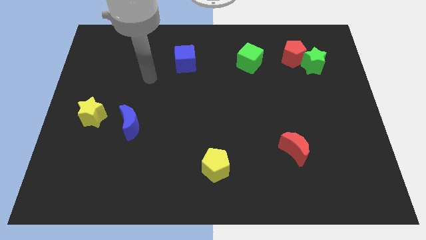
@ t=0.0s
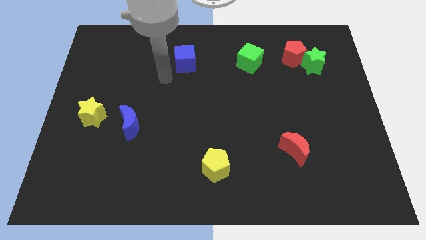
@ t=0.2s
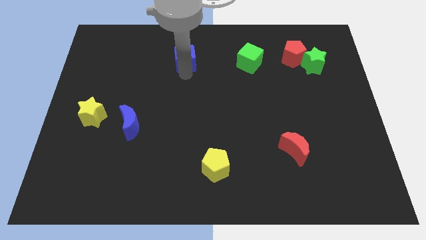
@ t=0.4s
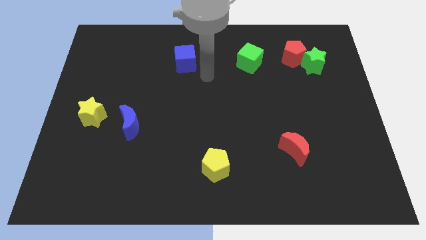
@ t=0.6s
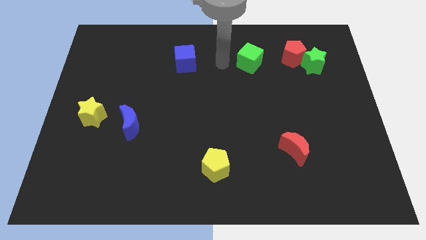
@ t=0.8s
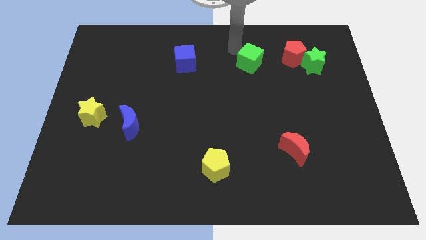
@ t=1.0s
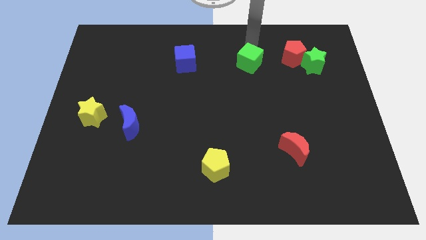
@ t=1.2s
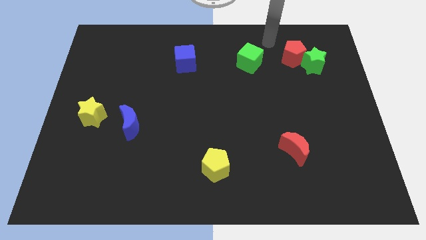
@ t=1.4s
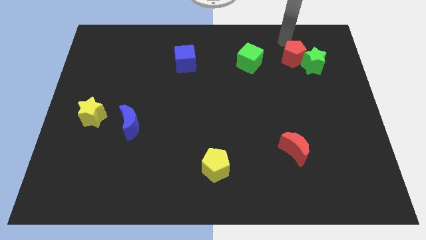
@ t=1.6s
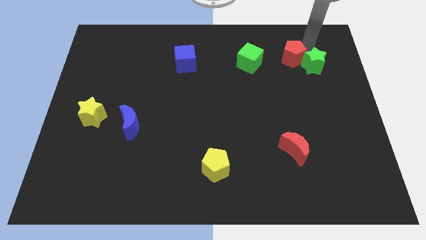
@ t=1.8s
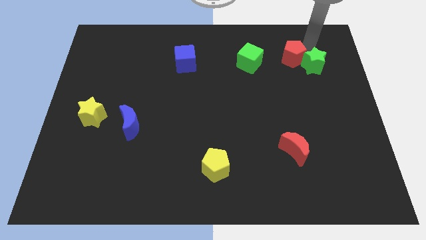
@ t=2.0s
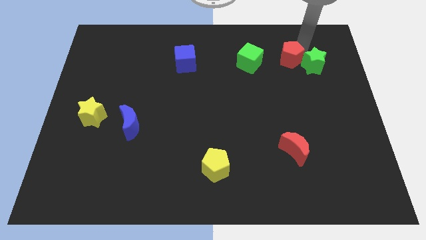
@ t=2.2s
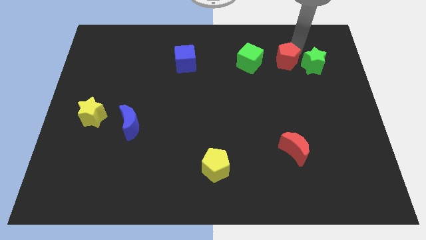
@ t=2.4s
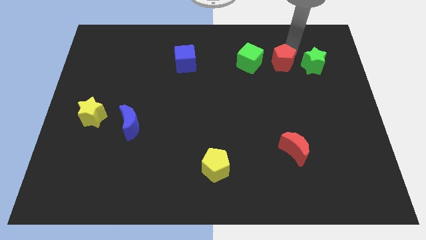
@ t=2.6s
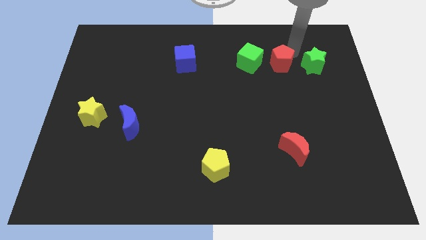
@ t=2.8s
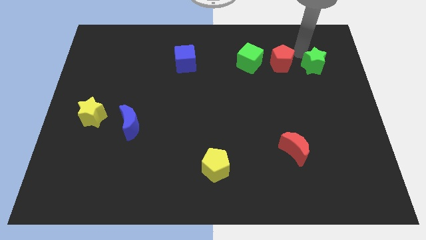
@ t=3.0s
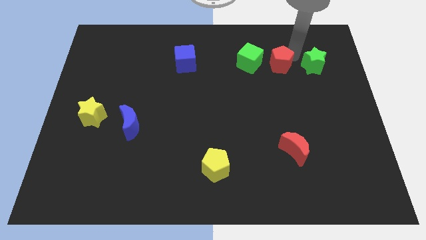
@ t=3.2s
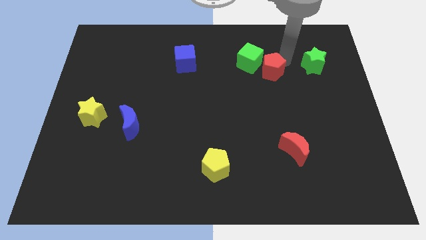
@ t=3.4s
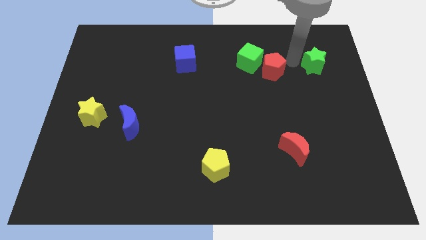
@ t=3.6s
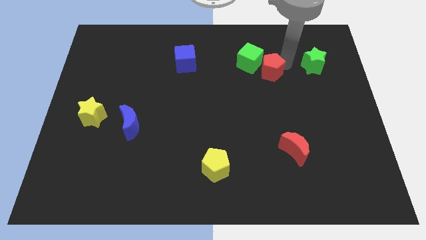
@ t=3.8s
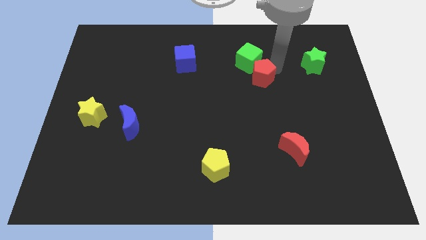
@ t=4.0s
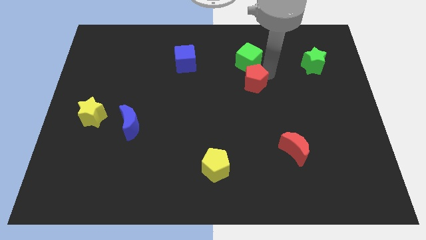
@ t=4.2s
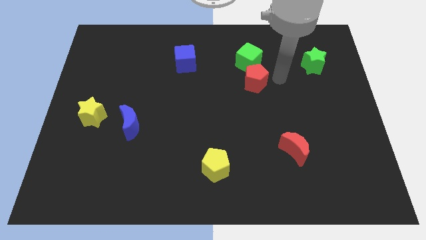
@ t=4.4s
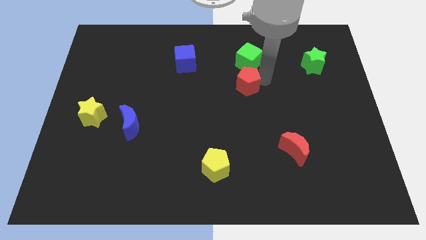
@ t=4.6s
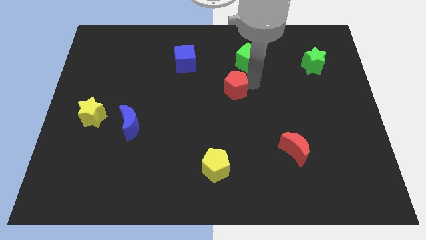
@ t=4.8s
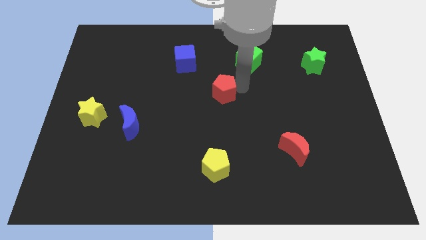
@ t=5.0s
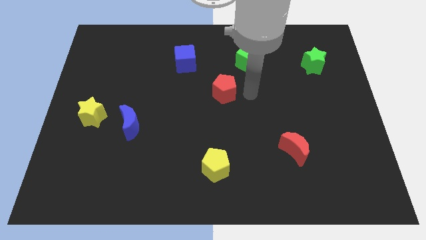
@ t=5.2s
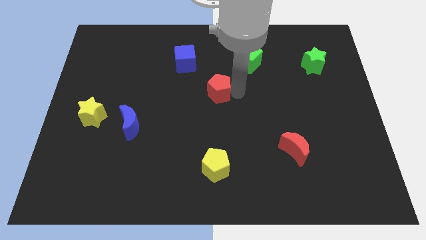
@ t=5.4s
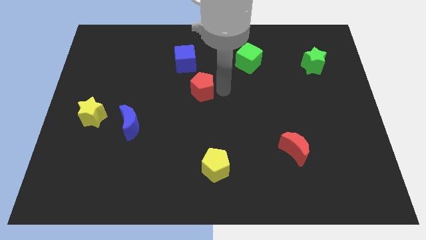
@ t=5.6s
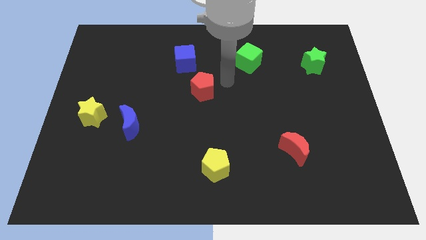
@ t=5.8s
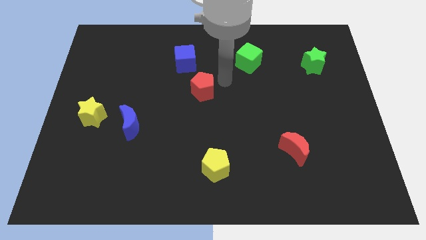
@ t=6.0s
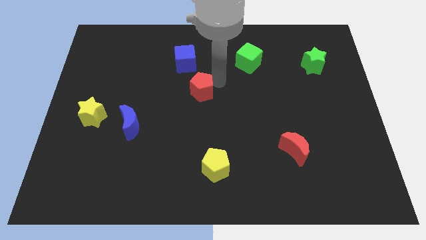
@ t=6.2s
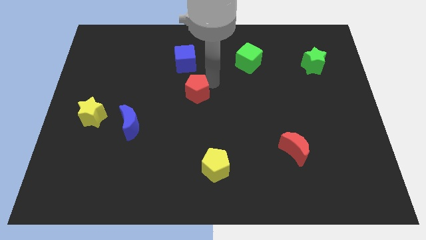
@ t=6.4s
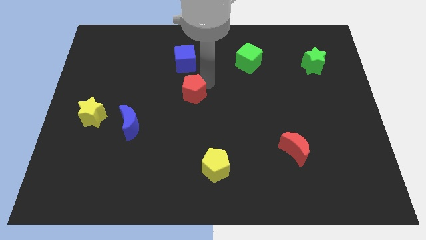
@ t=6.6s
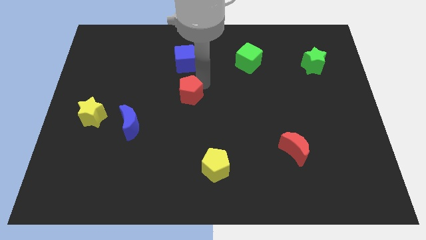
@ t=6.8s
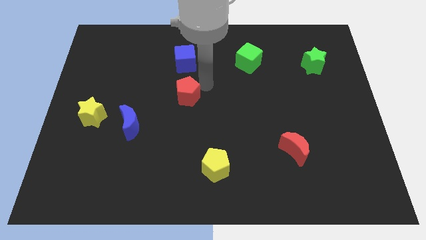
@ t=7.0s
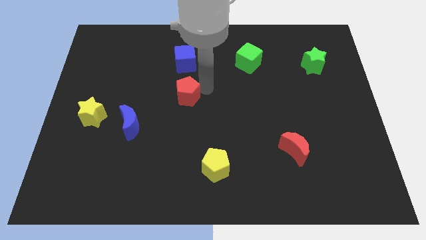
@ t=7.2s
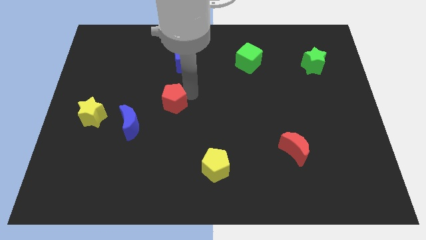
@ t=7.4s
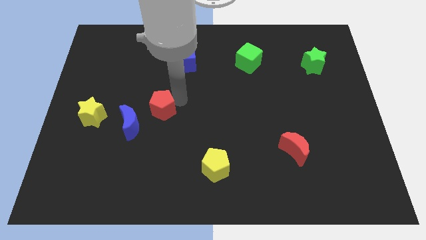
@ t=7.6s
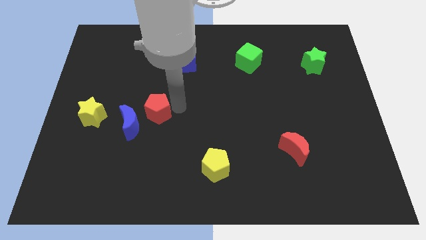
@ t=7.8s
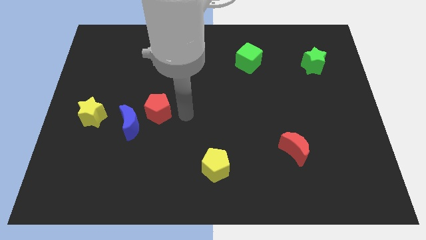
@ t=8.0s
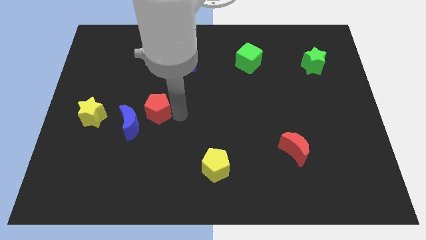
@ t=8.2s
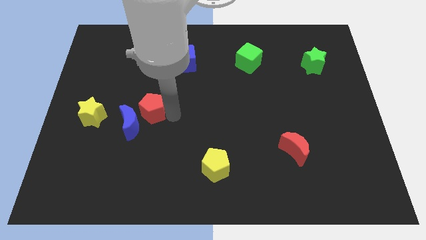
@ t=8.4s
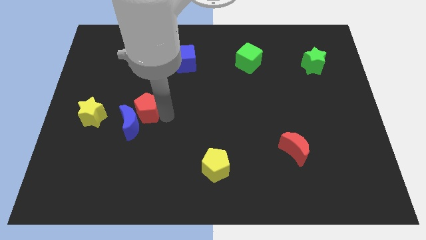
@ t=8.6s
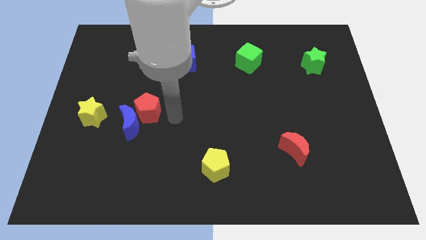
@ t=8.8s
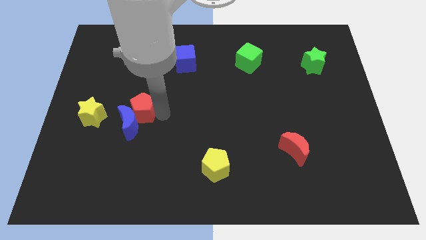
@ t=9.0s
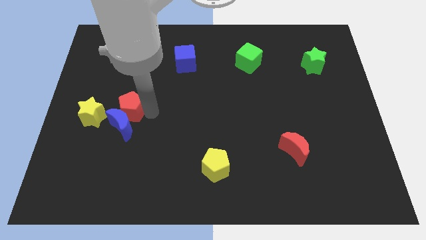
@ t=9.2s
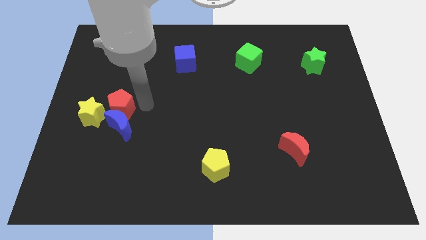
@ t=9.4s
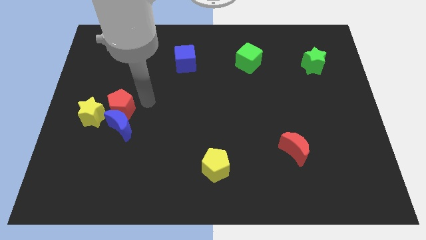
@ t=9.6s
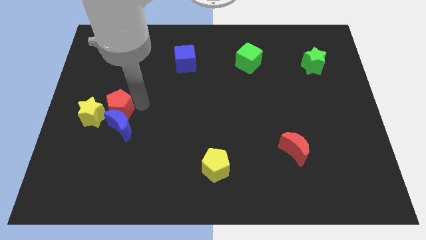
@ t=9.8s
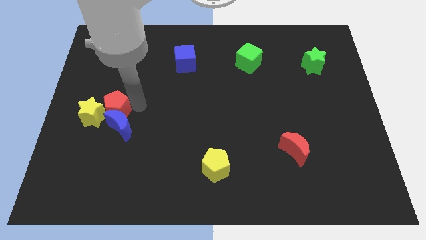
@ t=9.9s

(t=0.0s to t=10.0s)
move the red pentagon towards the yellow star

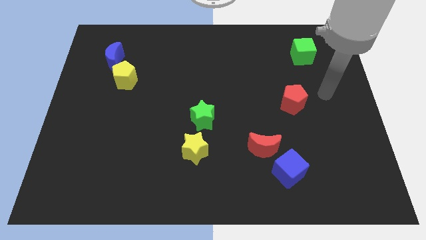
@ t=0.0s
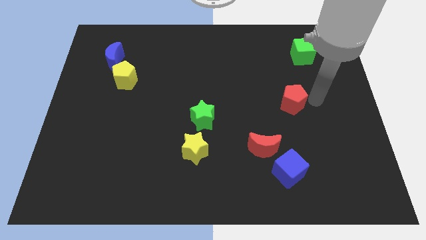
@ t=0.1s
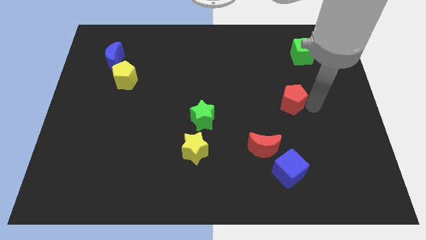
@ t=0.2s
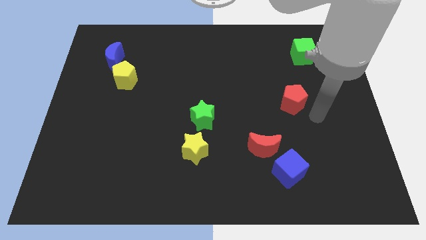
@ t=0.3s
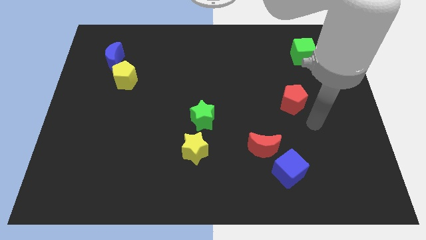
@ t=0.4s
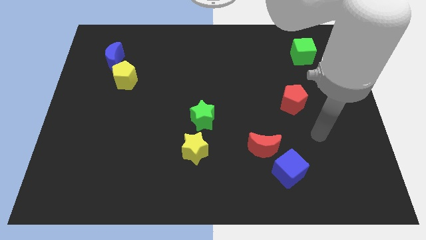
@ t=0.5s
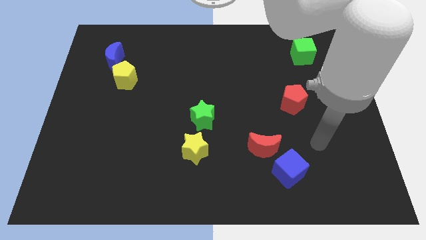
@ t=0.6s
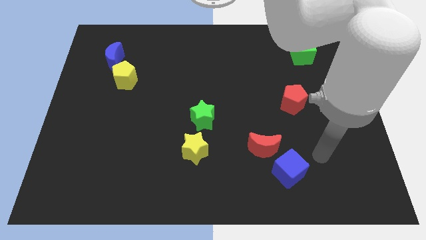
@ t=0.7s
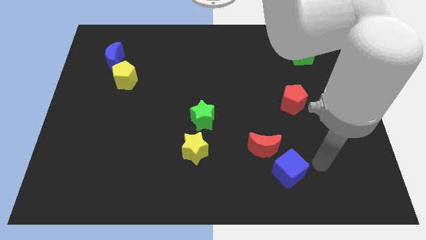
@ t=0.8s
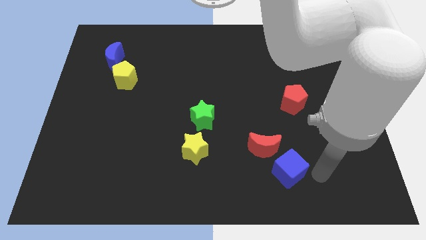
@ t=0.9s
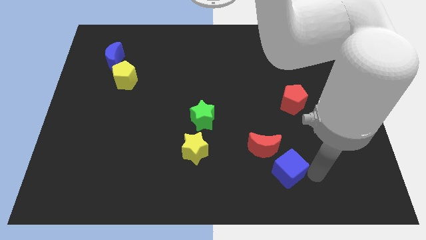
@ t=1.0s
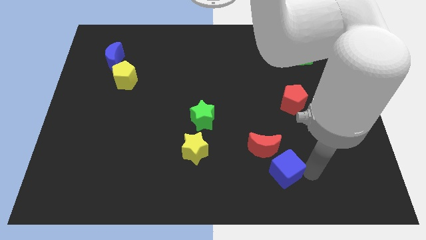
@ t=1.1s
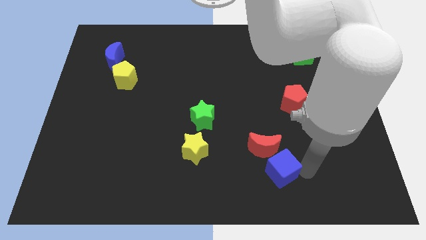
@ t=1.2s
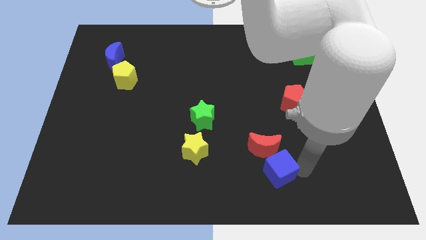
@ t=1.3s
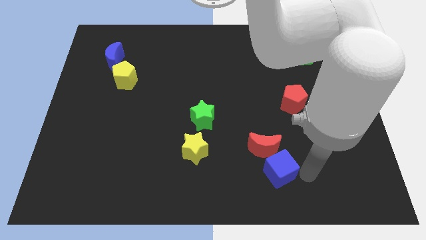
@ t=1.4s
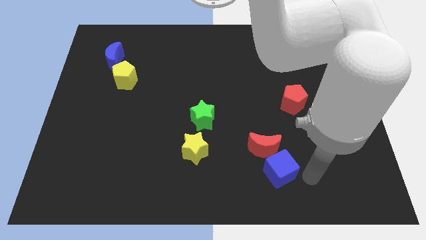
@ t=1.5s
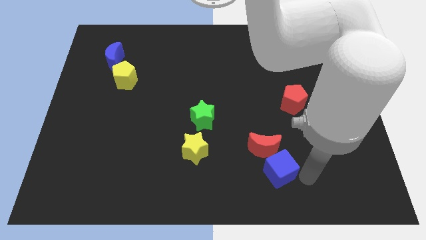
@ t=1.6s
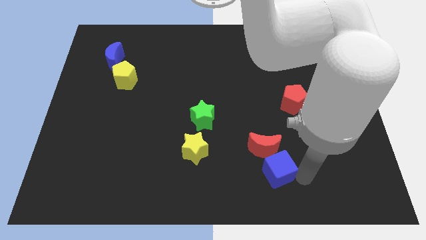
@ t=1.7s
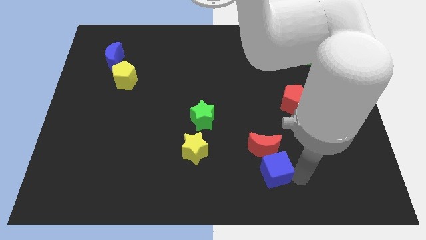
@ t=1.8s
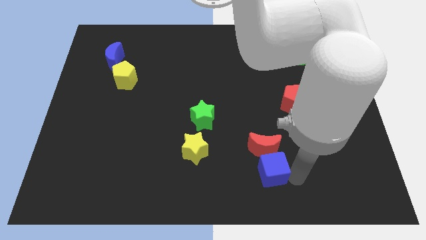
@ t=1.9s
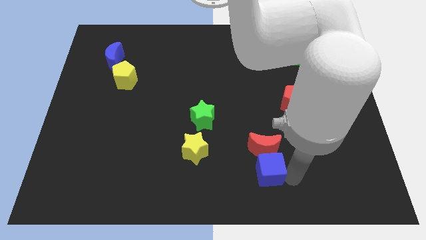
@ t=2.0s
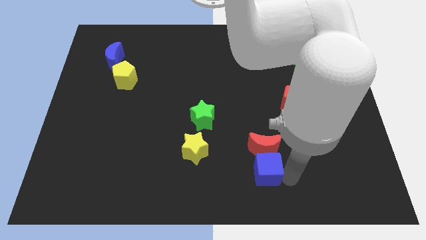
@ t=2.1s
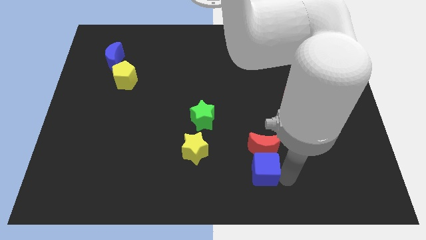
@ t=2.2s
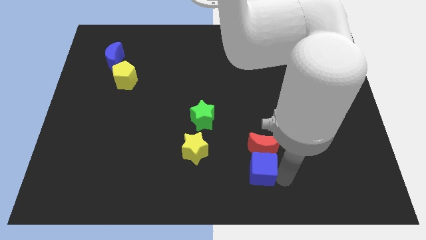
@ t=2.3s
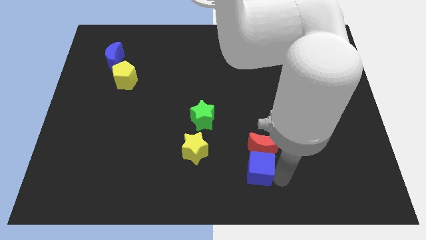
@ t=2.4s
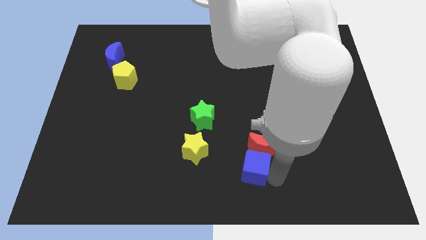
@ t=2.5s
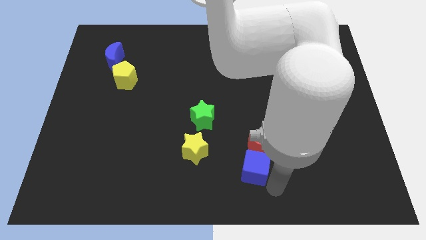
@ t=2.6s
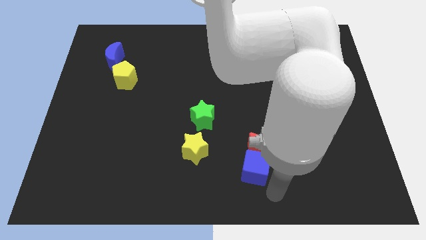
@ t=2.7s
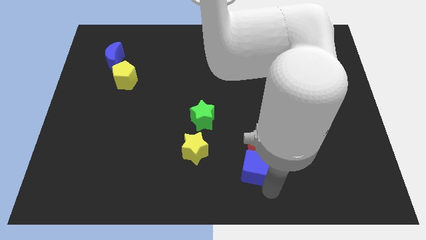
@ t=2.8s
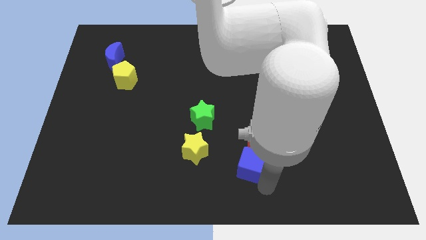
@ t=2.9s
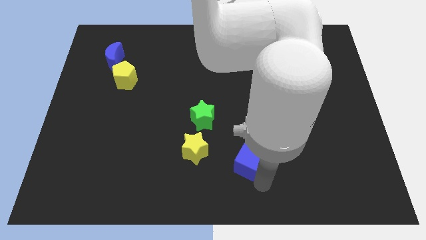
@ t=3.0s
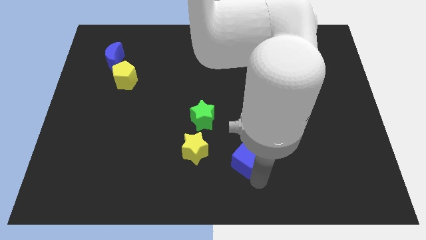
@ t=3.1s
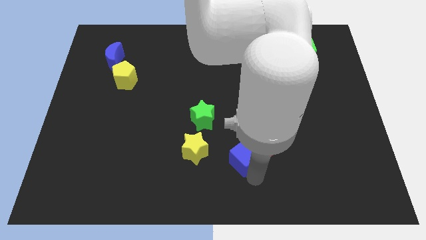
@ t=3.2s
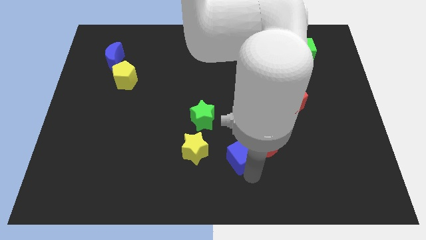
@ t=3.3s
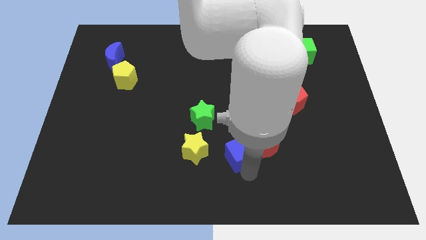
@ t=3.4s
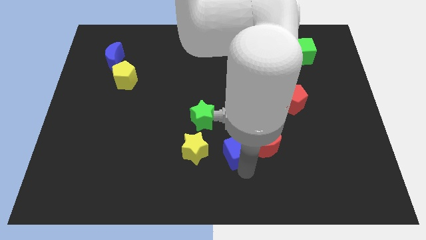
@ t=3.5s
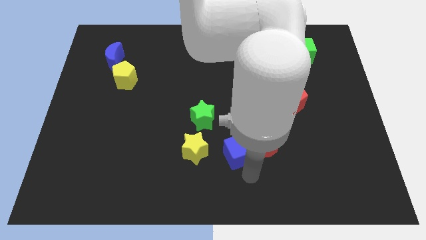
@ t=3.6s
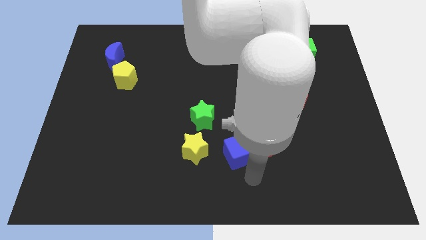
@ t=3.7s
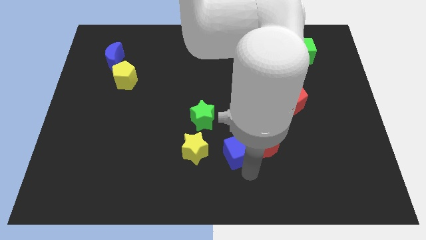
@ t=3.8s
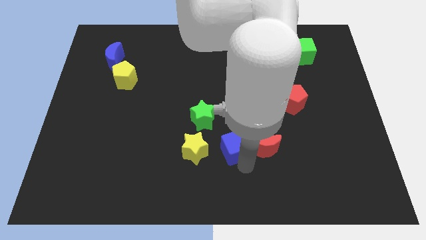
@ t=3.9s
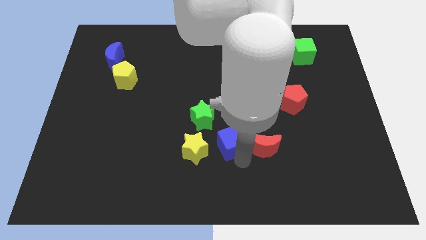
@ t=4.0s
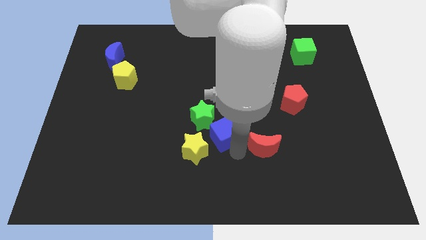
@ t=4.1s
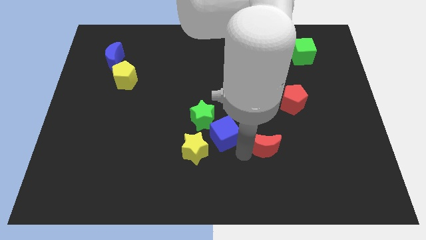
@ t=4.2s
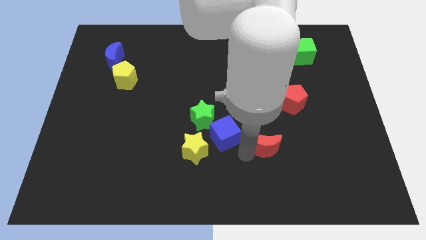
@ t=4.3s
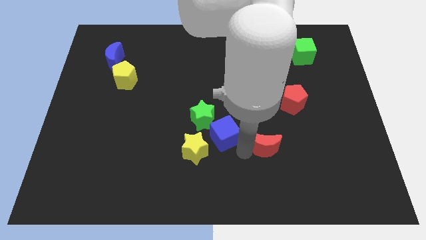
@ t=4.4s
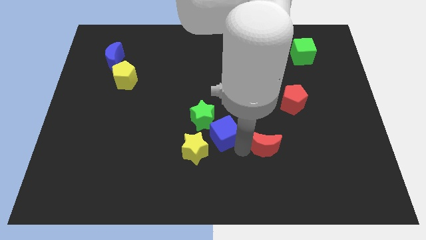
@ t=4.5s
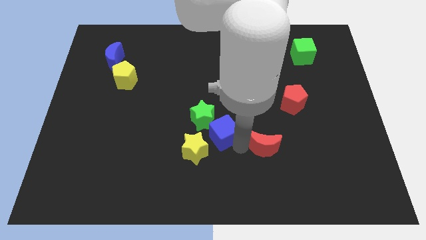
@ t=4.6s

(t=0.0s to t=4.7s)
put the blue cube to the green star
